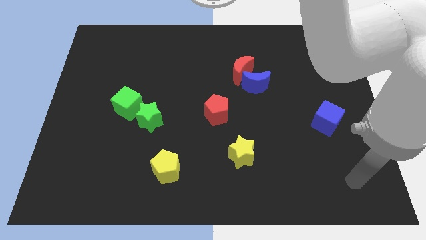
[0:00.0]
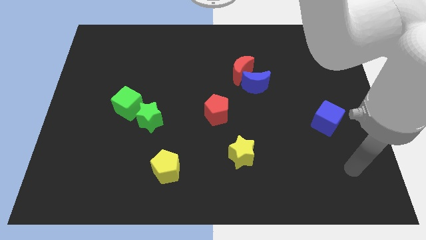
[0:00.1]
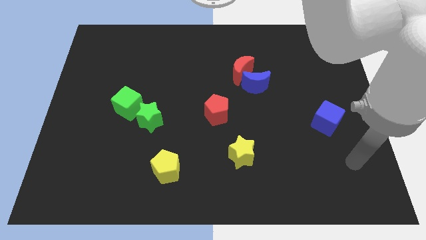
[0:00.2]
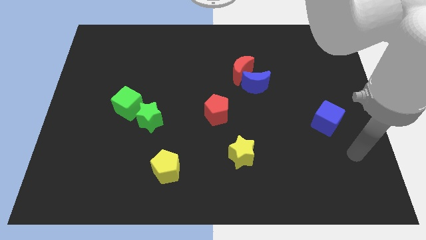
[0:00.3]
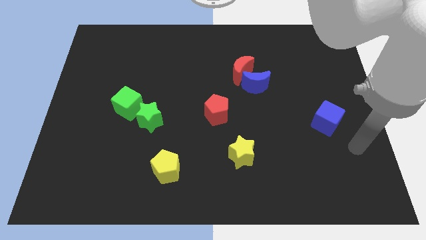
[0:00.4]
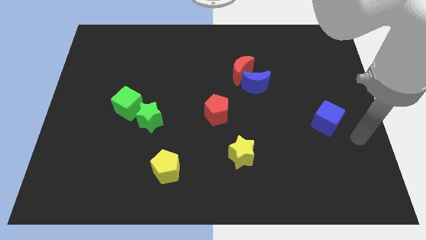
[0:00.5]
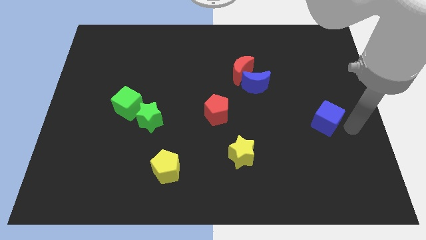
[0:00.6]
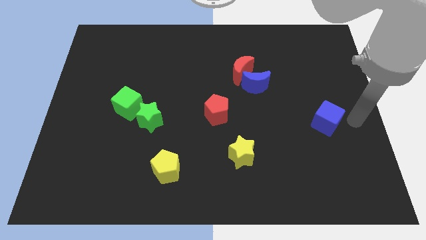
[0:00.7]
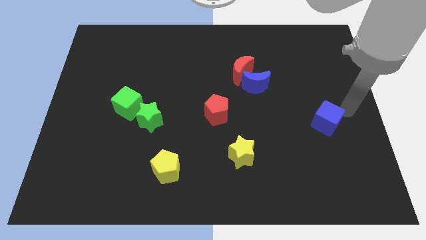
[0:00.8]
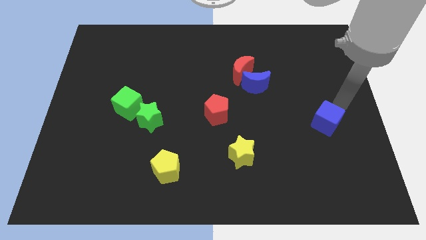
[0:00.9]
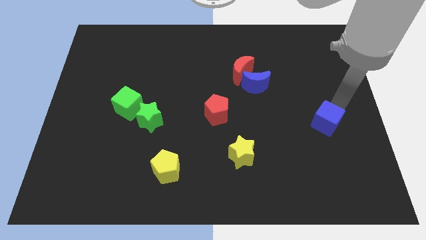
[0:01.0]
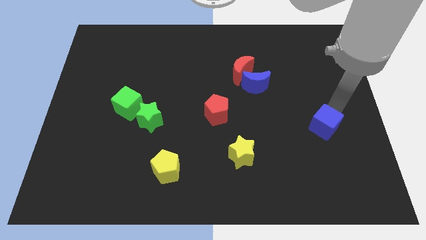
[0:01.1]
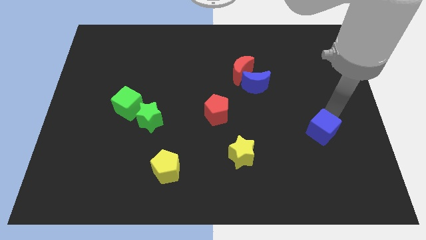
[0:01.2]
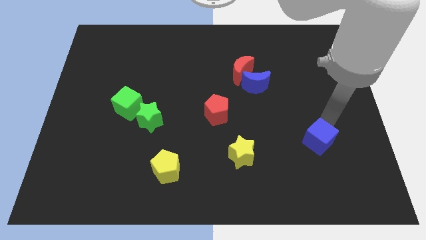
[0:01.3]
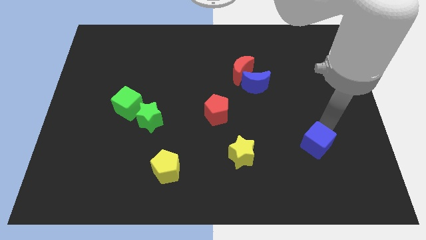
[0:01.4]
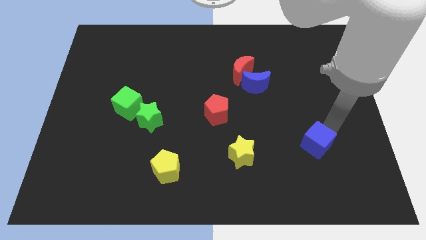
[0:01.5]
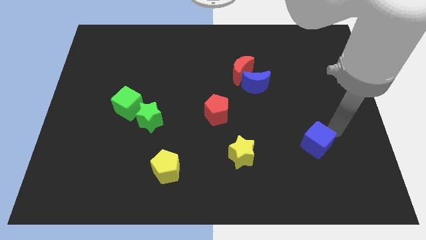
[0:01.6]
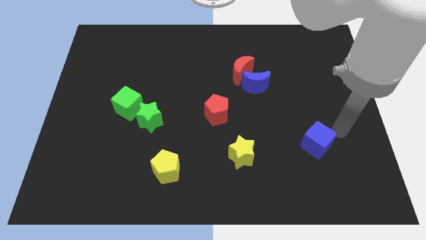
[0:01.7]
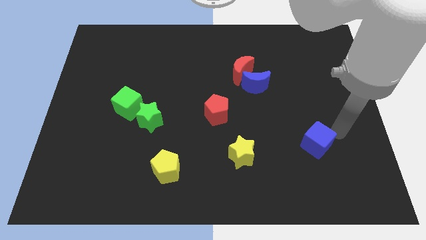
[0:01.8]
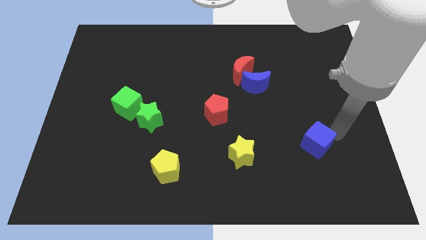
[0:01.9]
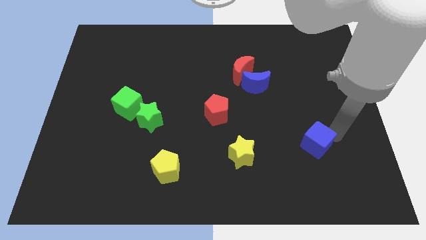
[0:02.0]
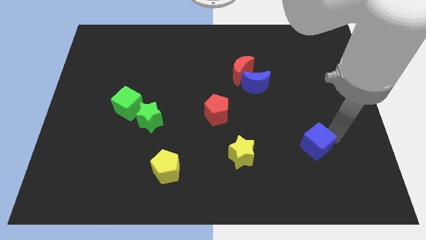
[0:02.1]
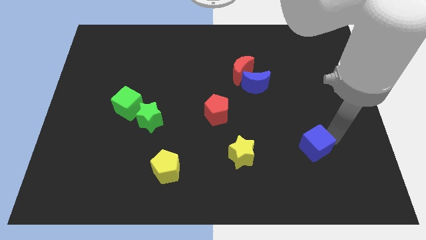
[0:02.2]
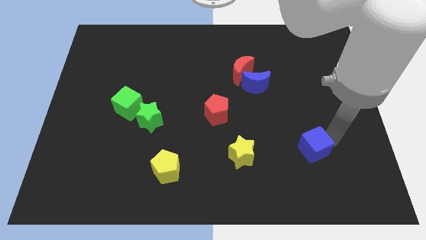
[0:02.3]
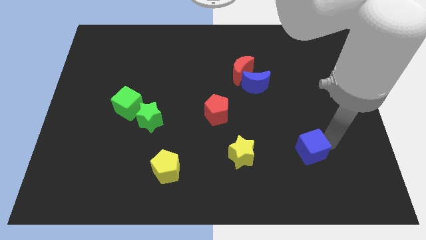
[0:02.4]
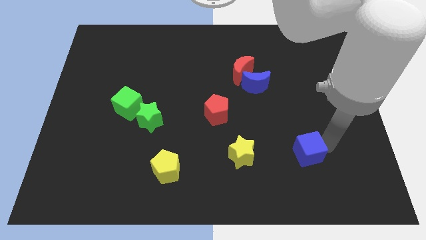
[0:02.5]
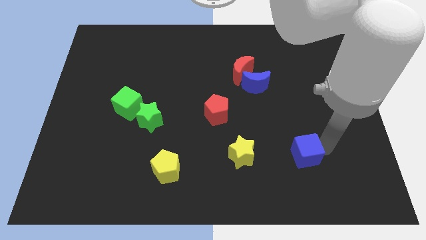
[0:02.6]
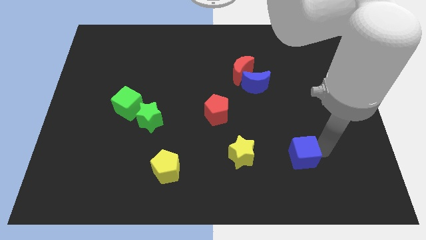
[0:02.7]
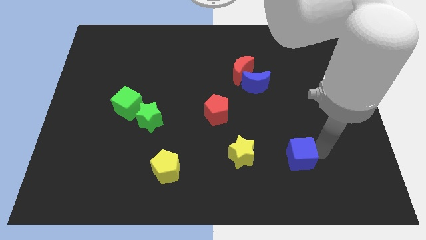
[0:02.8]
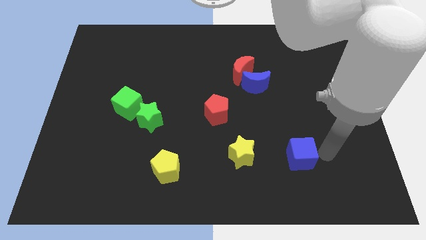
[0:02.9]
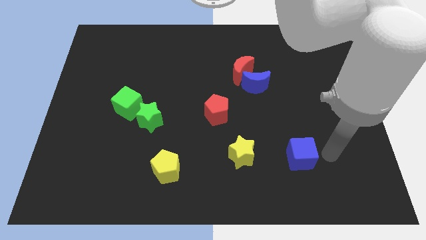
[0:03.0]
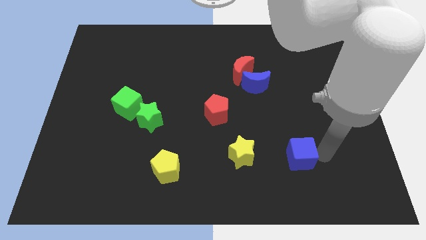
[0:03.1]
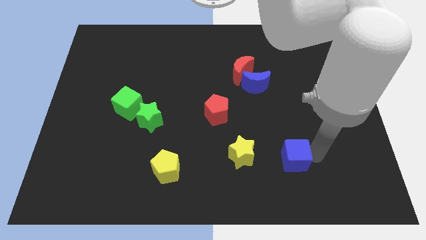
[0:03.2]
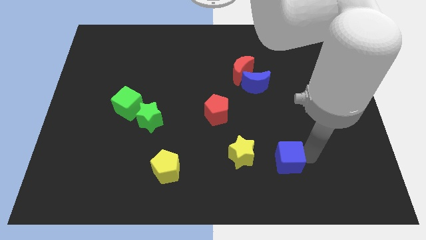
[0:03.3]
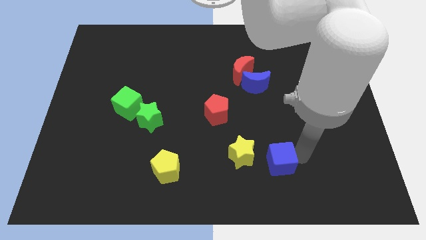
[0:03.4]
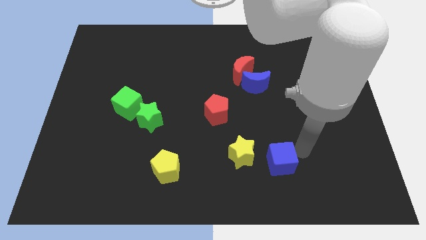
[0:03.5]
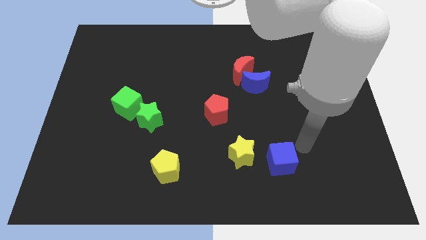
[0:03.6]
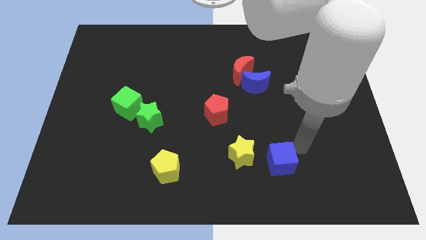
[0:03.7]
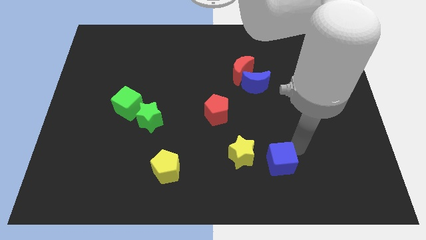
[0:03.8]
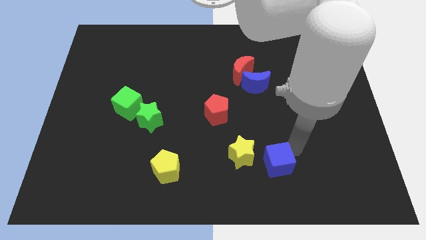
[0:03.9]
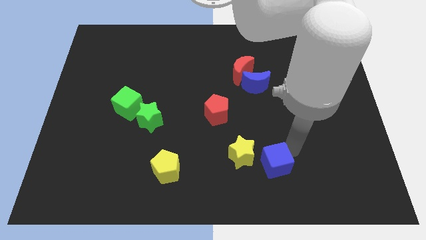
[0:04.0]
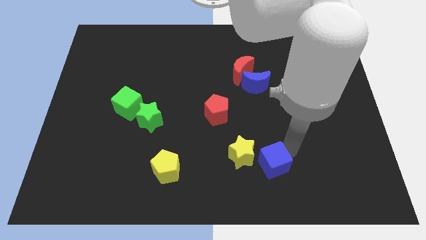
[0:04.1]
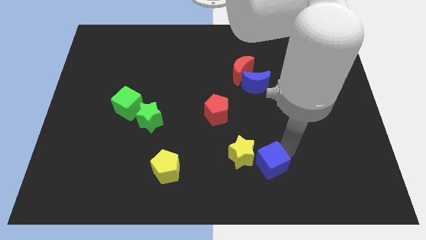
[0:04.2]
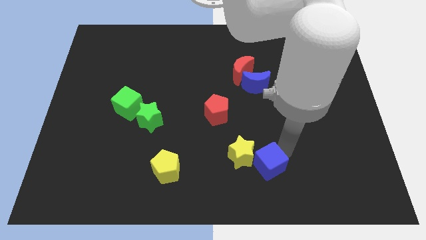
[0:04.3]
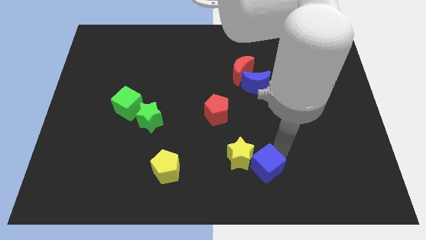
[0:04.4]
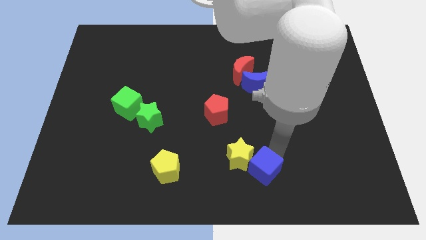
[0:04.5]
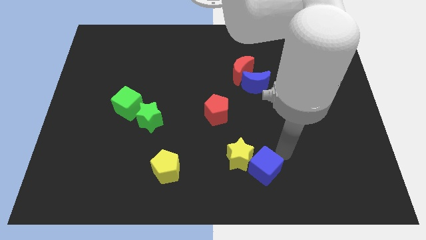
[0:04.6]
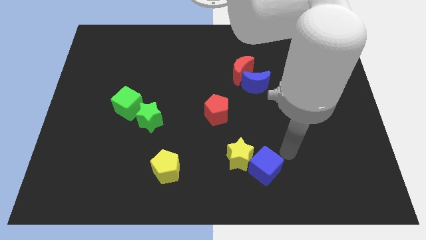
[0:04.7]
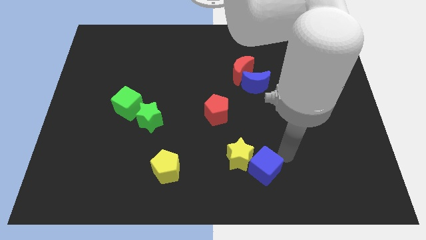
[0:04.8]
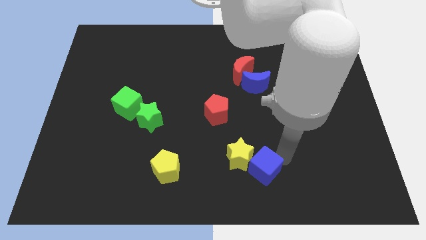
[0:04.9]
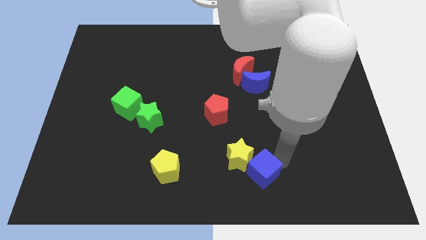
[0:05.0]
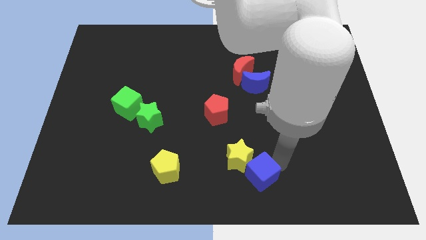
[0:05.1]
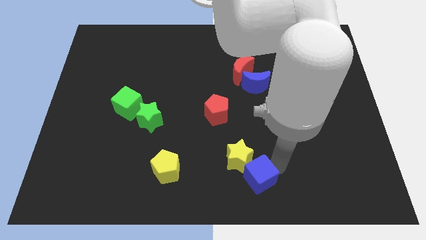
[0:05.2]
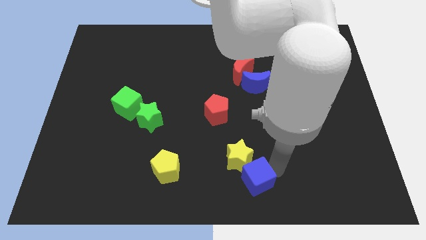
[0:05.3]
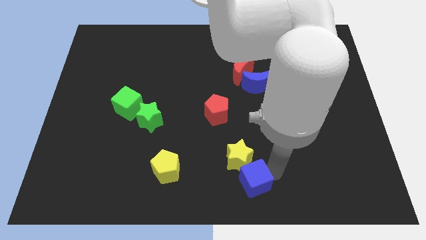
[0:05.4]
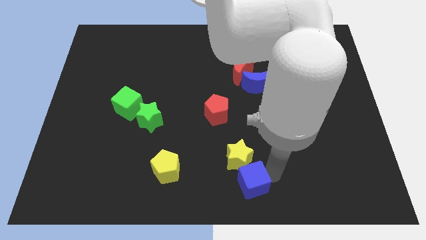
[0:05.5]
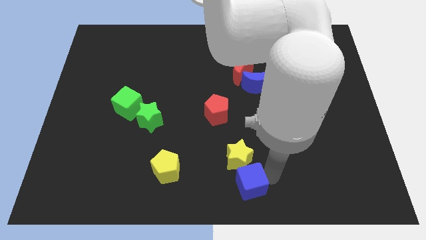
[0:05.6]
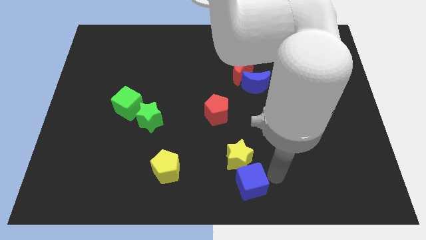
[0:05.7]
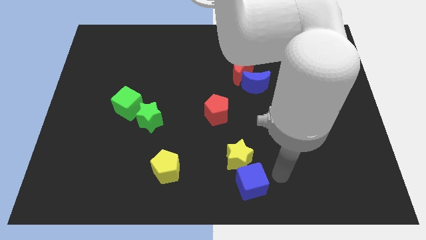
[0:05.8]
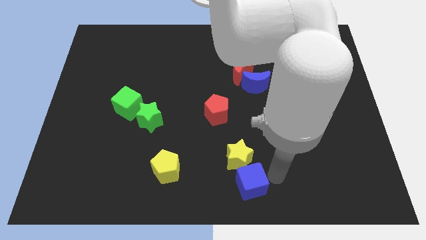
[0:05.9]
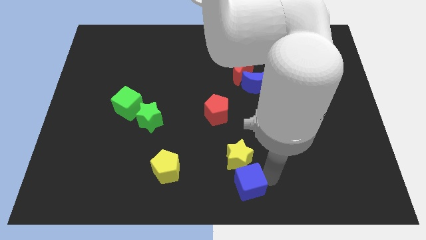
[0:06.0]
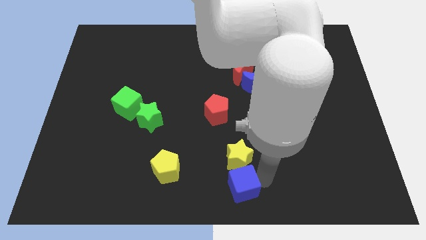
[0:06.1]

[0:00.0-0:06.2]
push the blue cube diagonally down and to the left of the yellow star

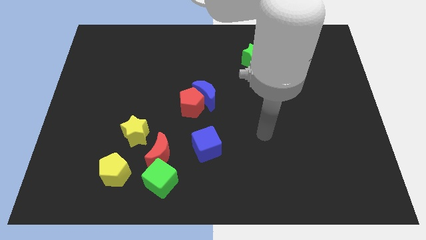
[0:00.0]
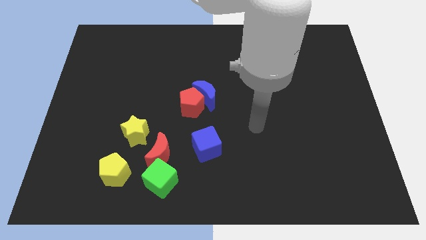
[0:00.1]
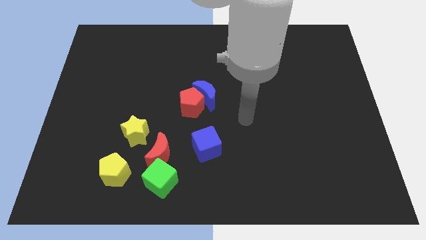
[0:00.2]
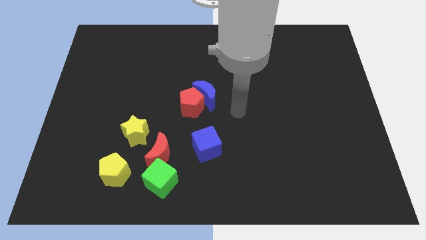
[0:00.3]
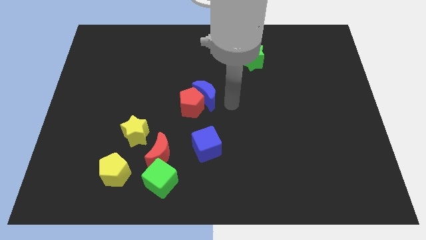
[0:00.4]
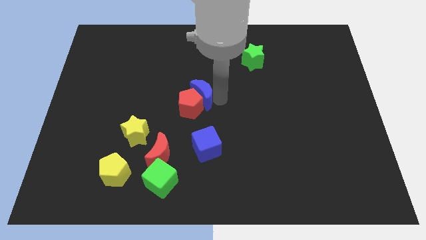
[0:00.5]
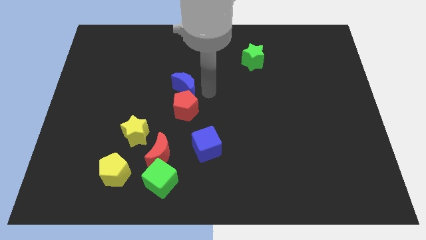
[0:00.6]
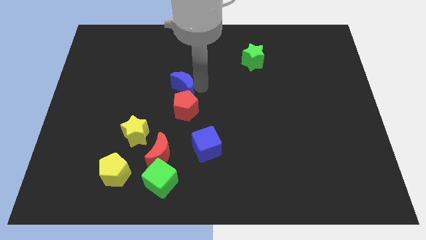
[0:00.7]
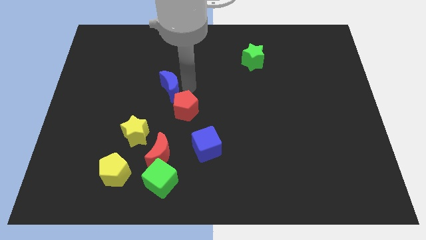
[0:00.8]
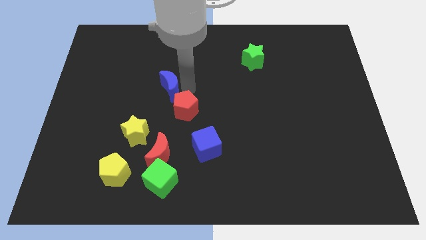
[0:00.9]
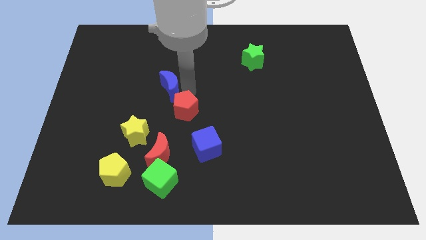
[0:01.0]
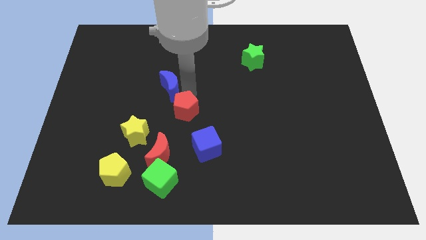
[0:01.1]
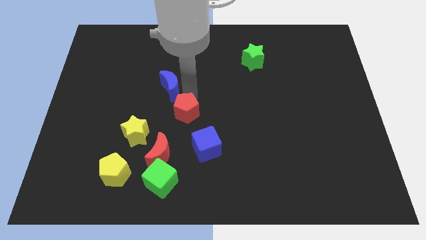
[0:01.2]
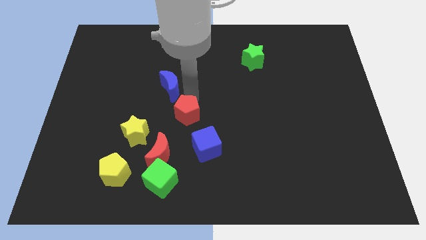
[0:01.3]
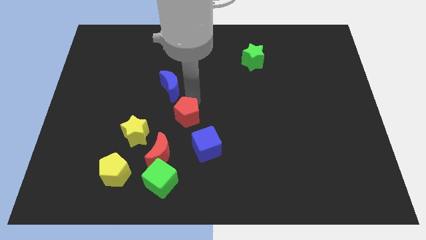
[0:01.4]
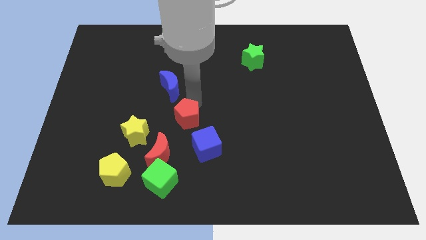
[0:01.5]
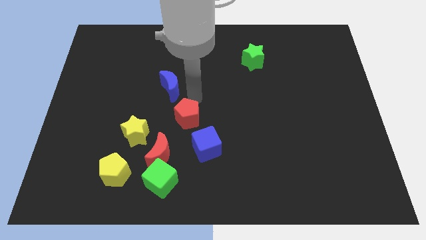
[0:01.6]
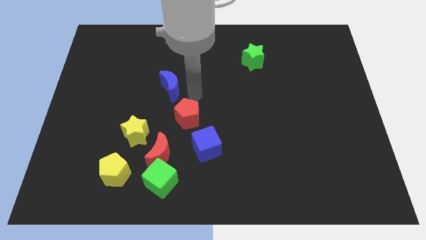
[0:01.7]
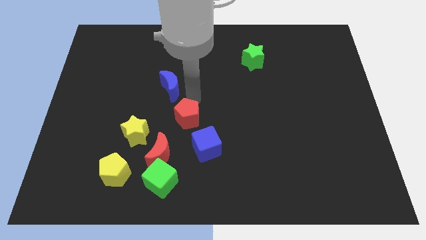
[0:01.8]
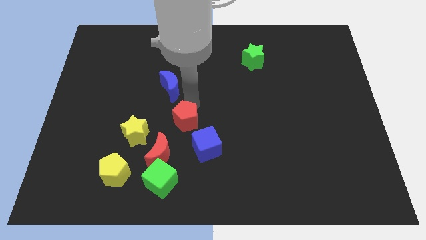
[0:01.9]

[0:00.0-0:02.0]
slide the red pentagon just right of the yellow star
